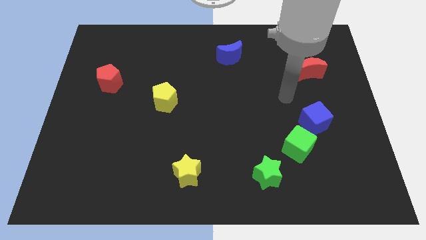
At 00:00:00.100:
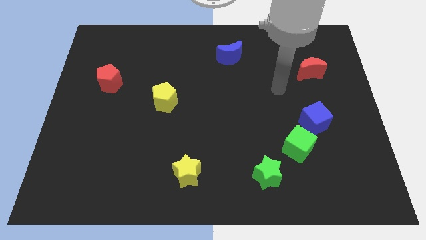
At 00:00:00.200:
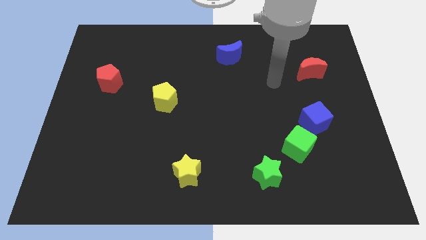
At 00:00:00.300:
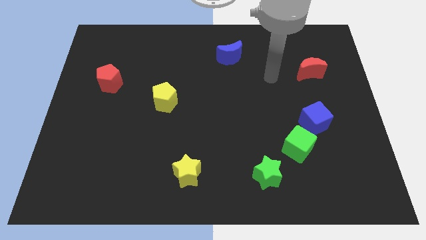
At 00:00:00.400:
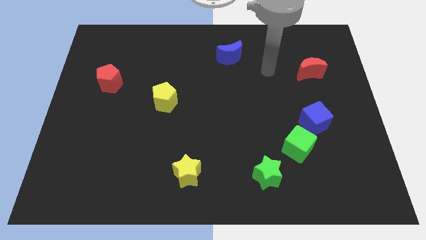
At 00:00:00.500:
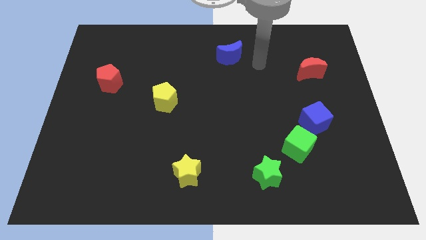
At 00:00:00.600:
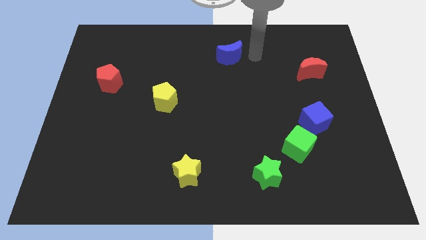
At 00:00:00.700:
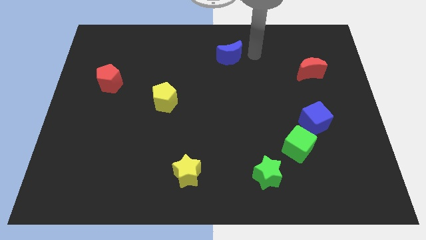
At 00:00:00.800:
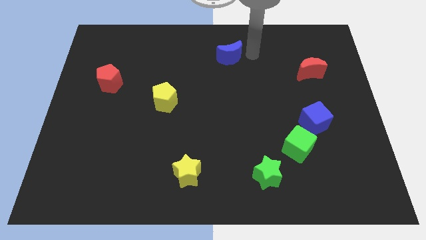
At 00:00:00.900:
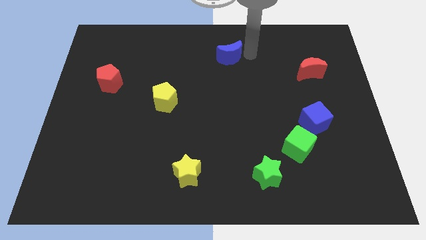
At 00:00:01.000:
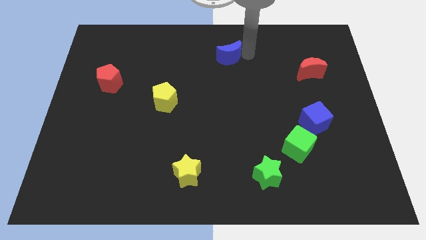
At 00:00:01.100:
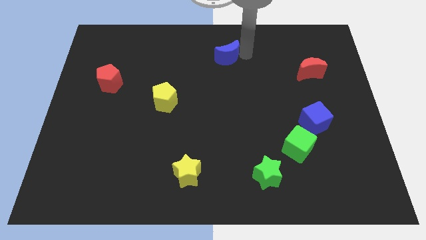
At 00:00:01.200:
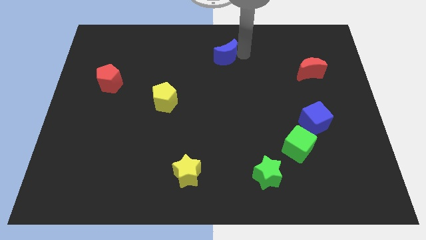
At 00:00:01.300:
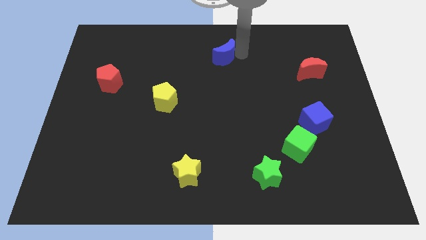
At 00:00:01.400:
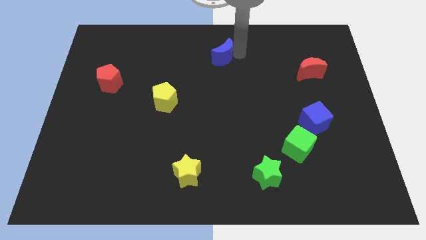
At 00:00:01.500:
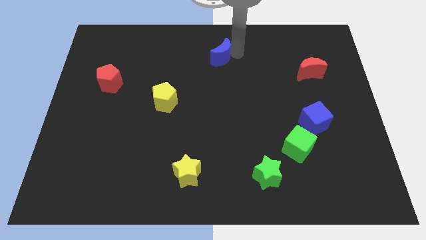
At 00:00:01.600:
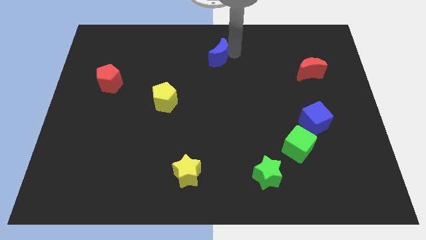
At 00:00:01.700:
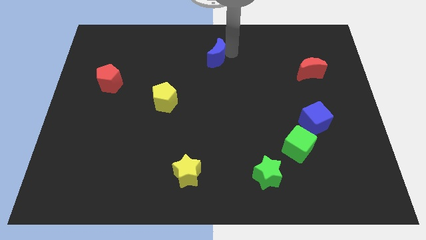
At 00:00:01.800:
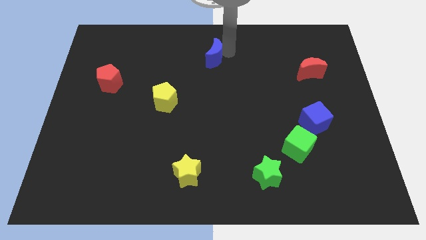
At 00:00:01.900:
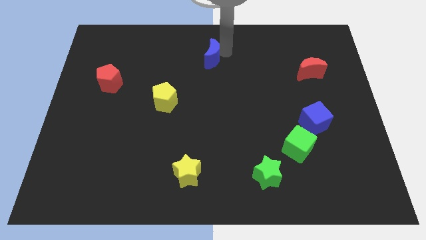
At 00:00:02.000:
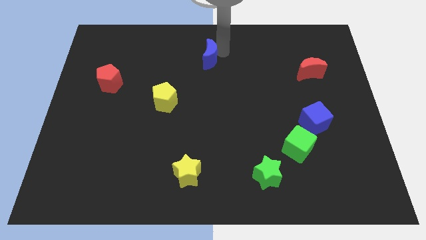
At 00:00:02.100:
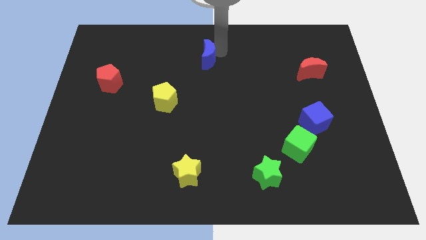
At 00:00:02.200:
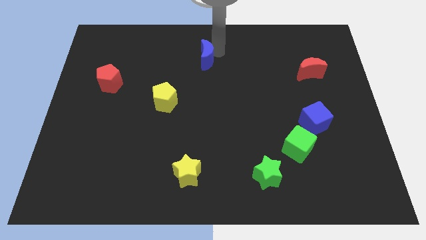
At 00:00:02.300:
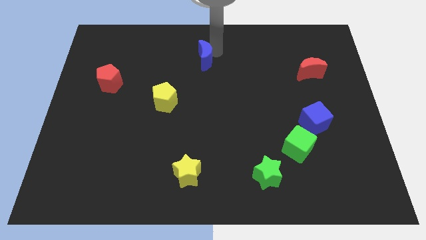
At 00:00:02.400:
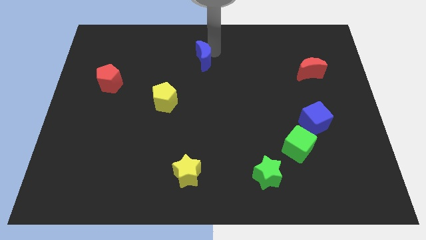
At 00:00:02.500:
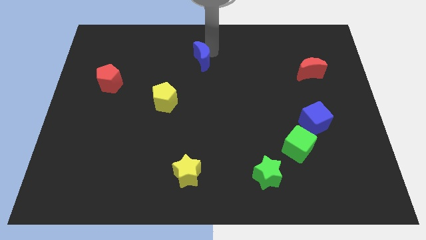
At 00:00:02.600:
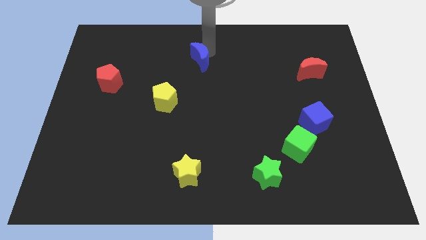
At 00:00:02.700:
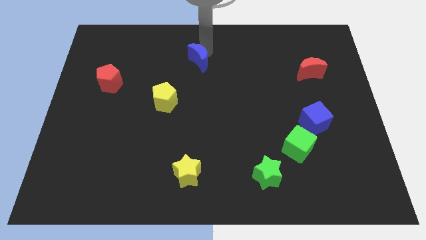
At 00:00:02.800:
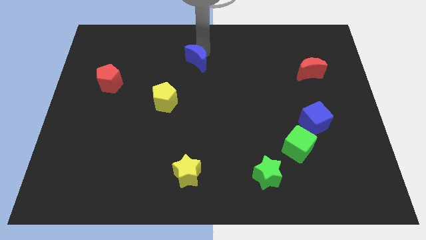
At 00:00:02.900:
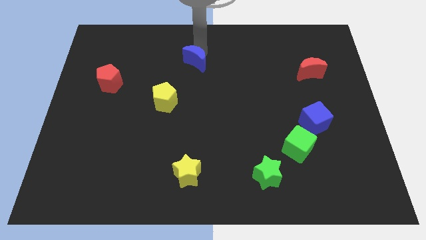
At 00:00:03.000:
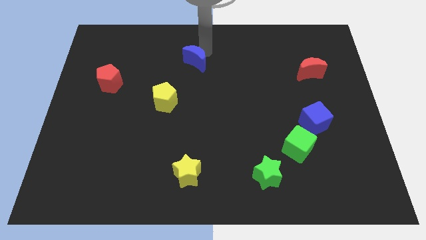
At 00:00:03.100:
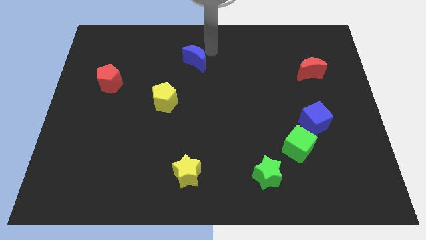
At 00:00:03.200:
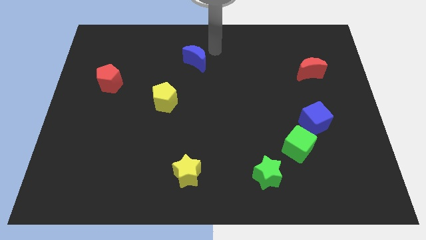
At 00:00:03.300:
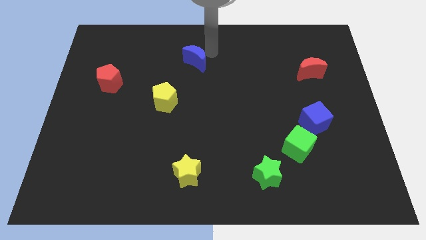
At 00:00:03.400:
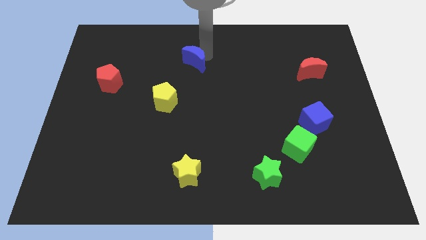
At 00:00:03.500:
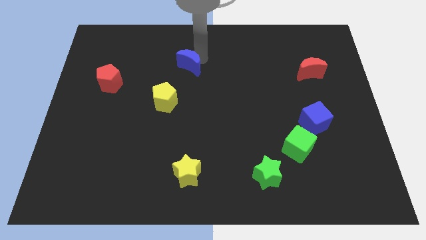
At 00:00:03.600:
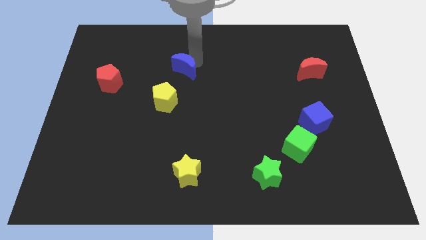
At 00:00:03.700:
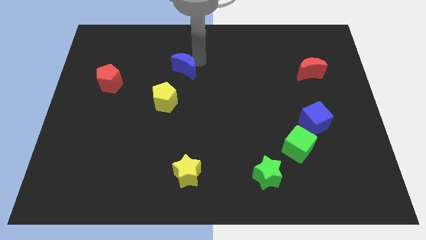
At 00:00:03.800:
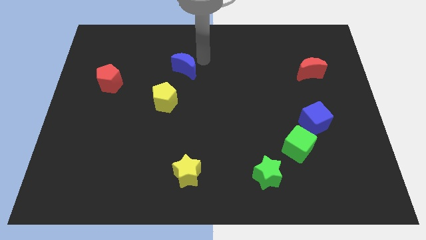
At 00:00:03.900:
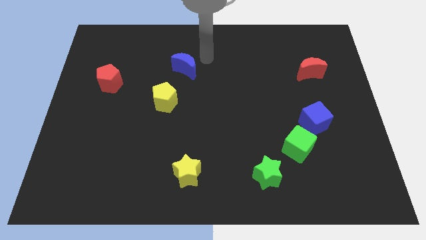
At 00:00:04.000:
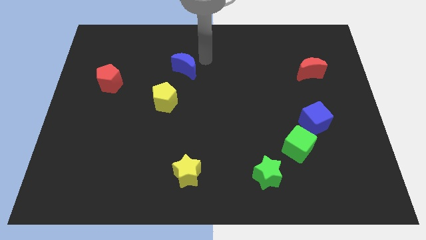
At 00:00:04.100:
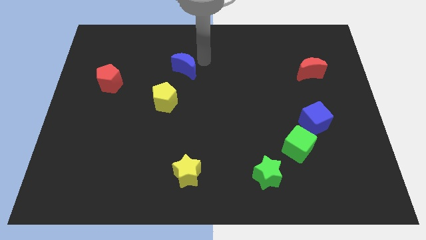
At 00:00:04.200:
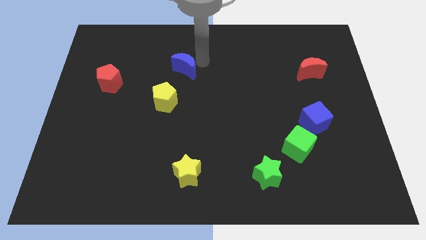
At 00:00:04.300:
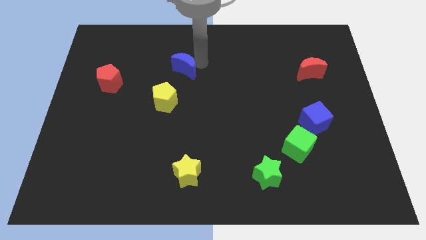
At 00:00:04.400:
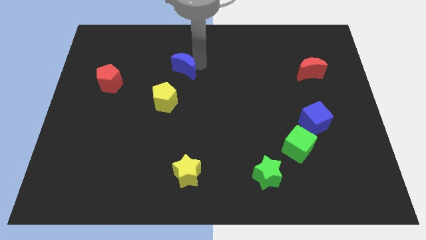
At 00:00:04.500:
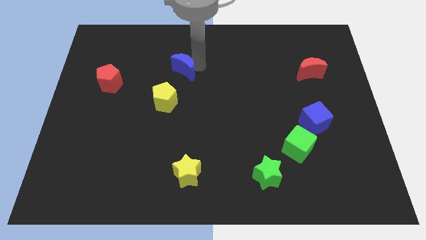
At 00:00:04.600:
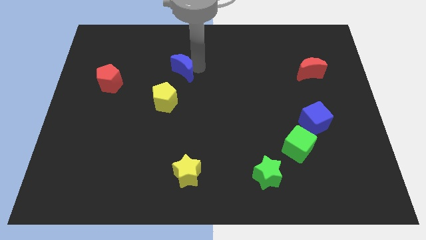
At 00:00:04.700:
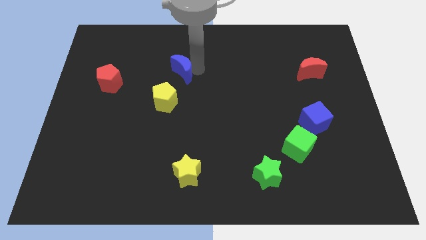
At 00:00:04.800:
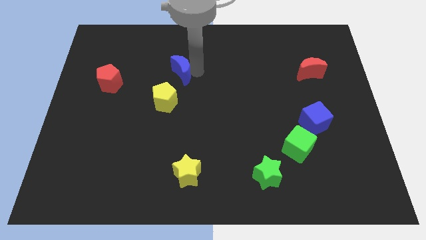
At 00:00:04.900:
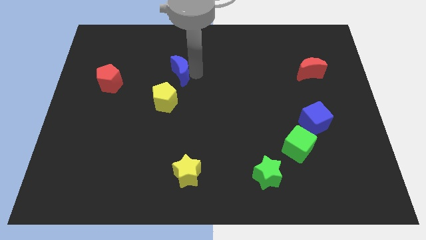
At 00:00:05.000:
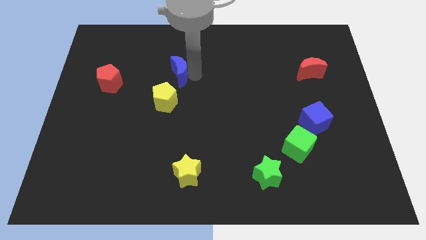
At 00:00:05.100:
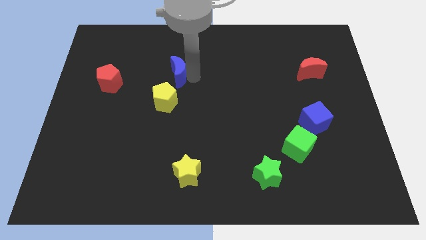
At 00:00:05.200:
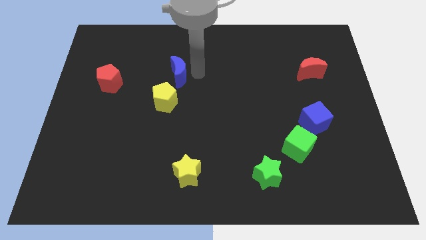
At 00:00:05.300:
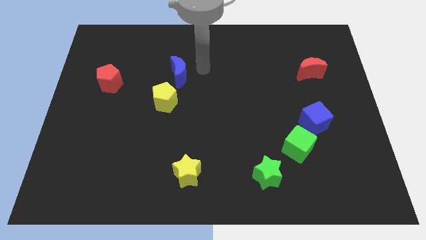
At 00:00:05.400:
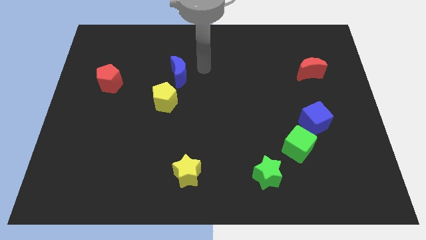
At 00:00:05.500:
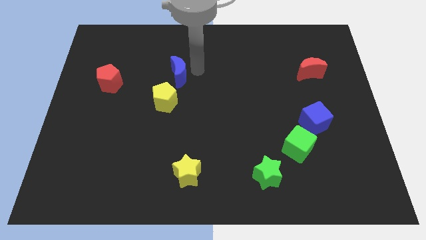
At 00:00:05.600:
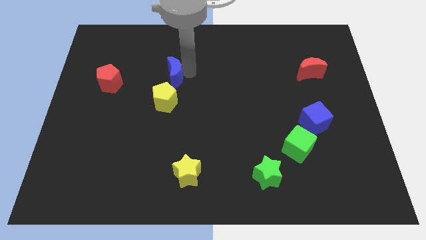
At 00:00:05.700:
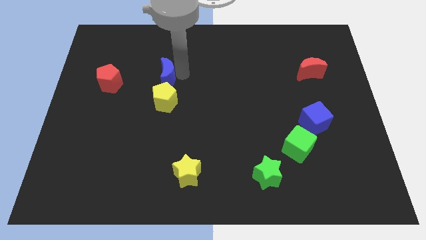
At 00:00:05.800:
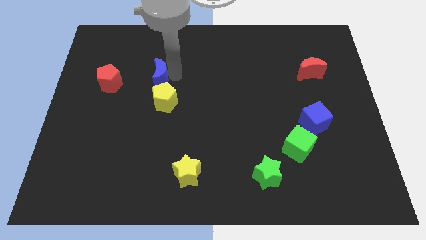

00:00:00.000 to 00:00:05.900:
slide the blue moon diagonally up and to the left of the yellow pentagon

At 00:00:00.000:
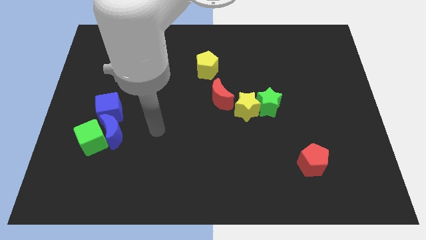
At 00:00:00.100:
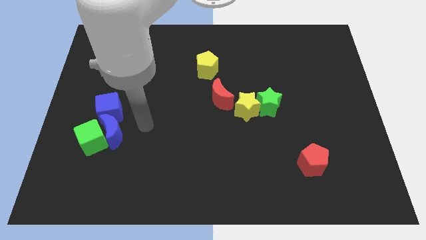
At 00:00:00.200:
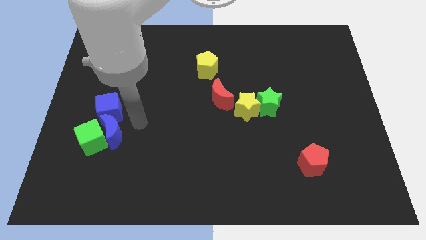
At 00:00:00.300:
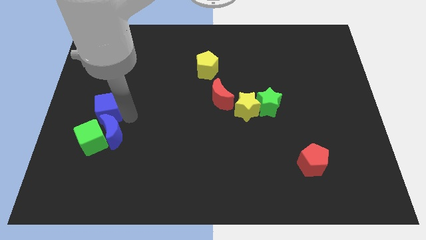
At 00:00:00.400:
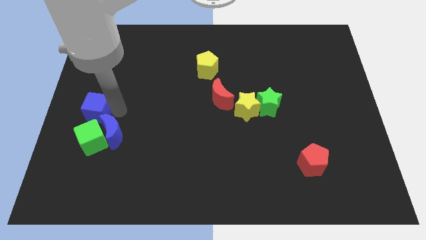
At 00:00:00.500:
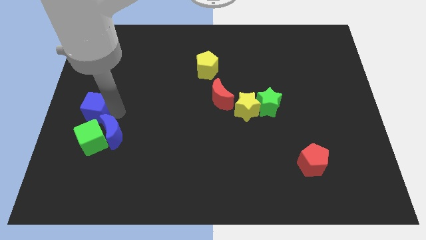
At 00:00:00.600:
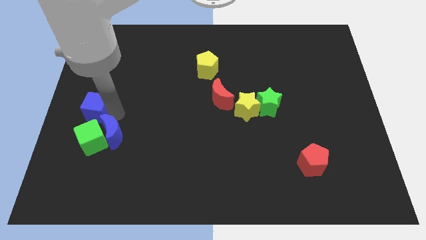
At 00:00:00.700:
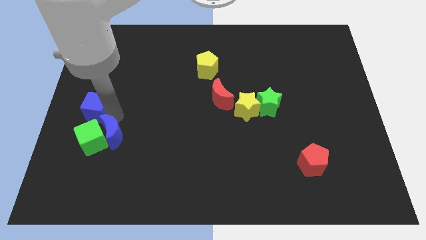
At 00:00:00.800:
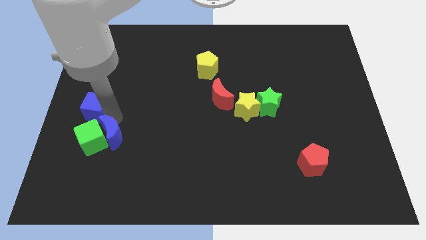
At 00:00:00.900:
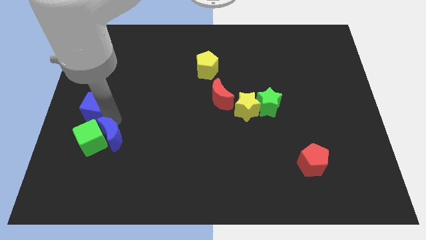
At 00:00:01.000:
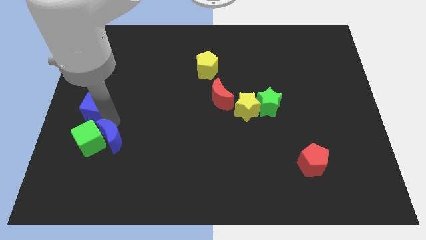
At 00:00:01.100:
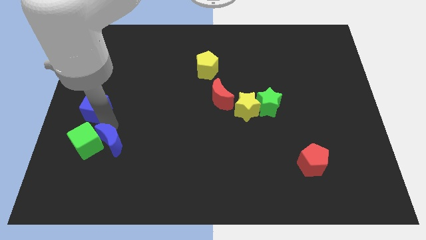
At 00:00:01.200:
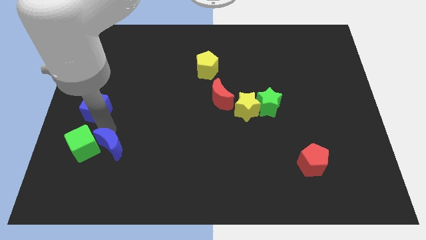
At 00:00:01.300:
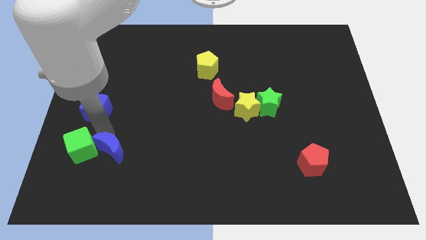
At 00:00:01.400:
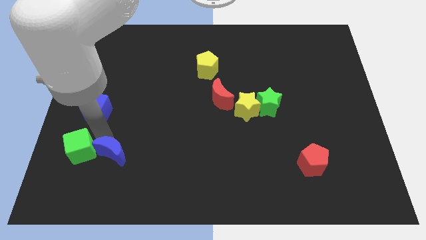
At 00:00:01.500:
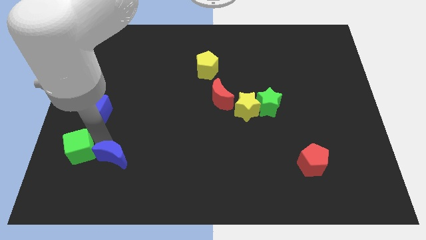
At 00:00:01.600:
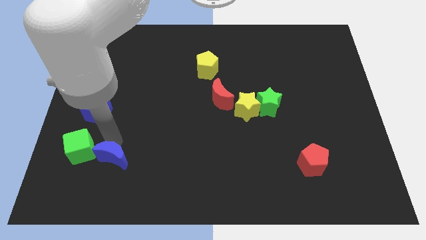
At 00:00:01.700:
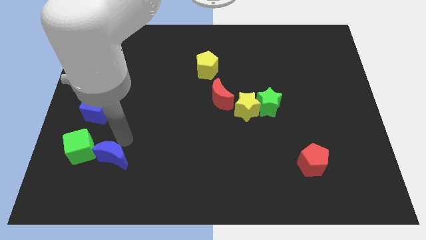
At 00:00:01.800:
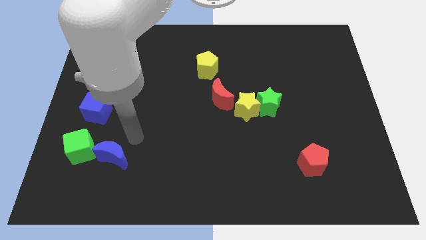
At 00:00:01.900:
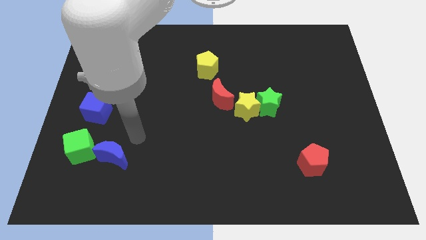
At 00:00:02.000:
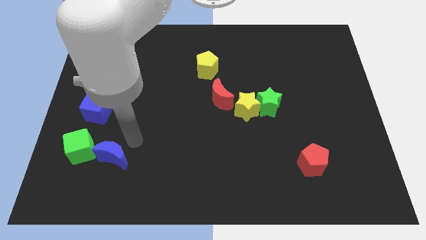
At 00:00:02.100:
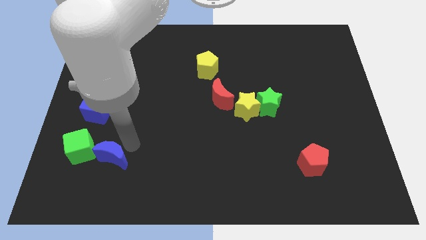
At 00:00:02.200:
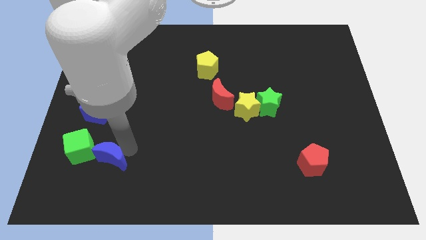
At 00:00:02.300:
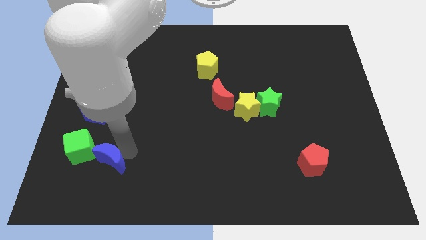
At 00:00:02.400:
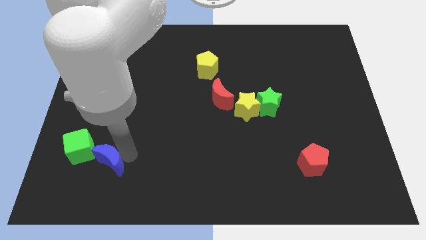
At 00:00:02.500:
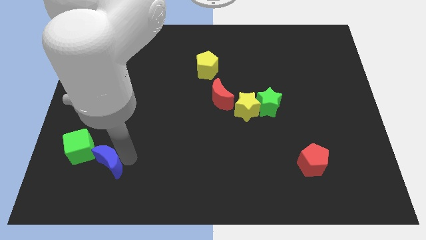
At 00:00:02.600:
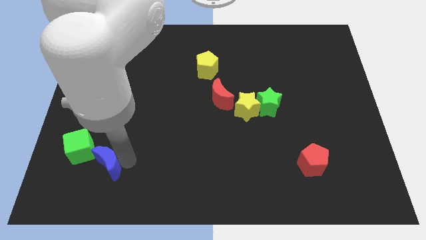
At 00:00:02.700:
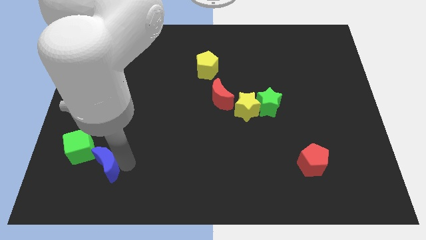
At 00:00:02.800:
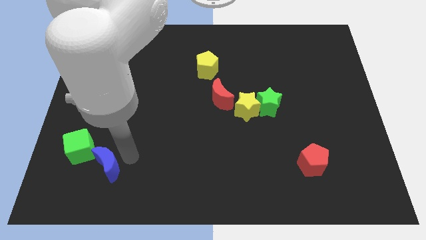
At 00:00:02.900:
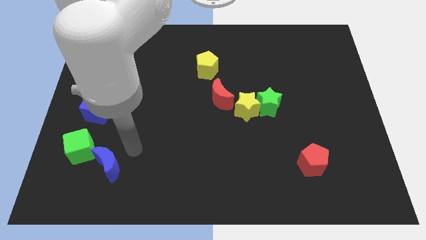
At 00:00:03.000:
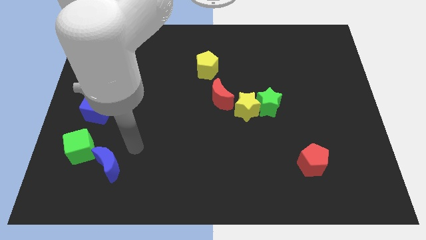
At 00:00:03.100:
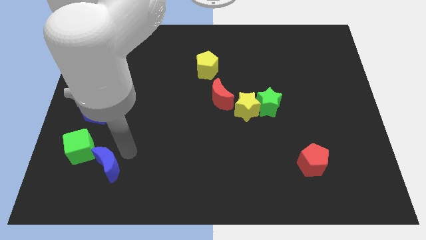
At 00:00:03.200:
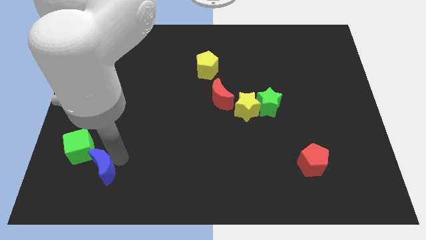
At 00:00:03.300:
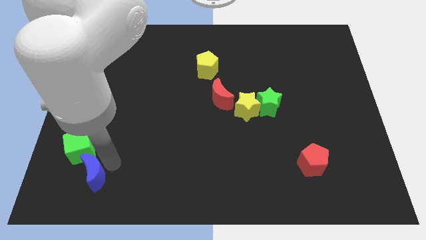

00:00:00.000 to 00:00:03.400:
push the blue moon to the bottom of the green cube
